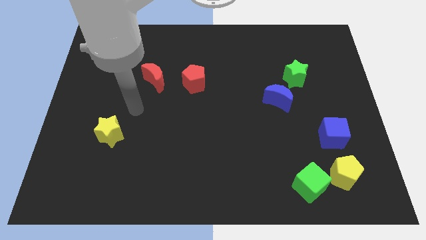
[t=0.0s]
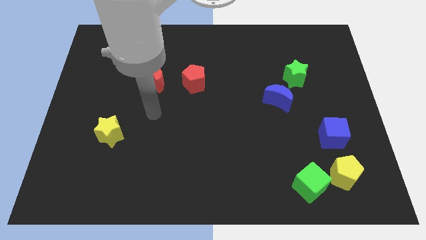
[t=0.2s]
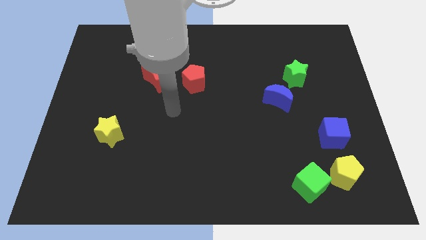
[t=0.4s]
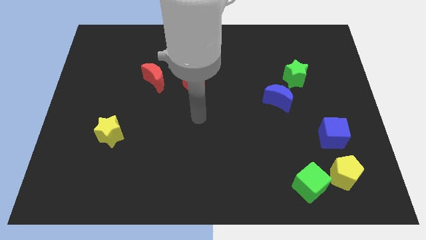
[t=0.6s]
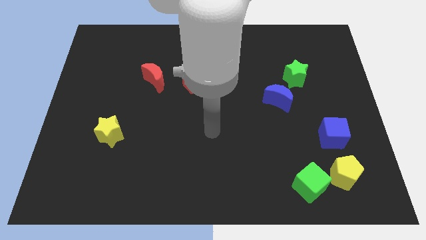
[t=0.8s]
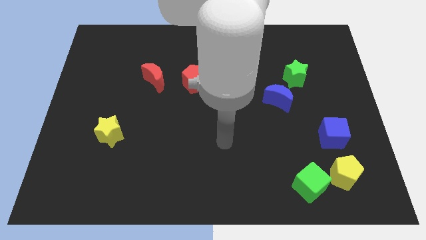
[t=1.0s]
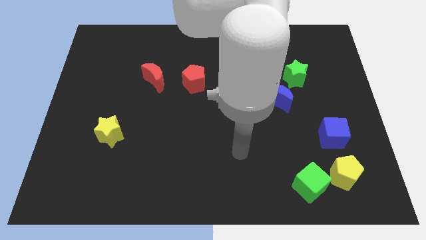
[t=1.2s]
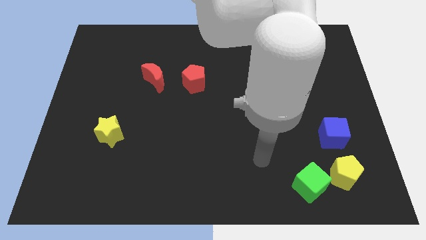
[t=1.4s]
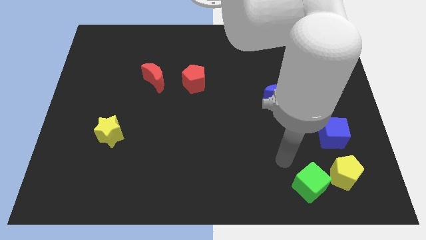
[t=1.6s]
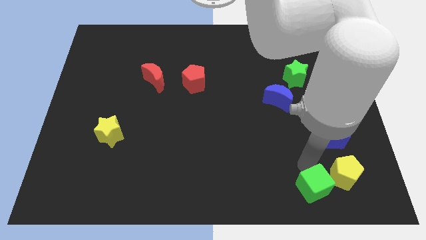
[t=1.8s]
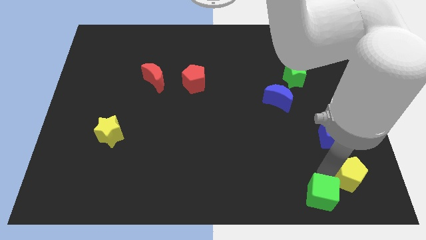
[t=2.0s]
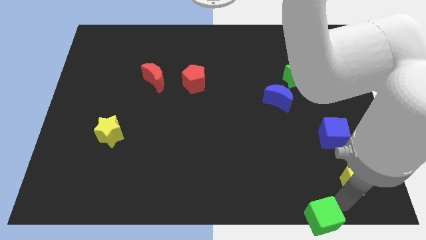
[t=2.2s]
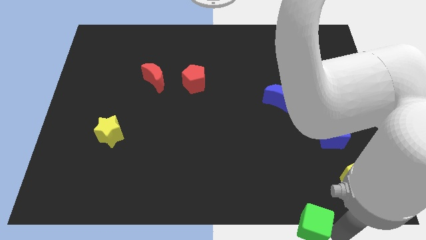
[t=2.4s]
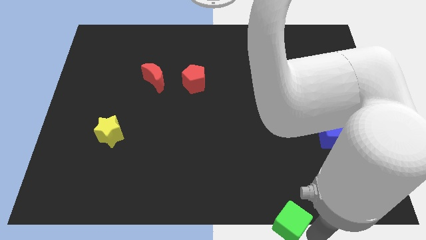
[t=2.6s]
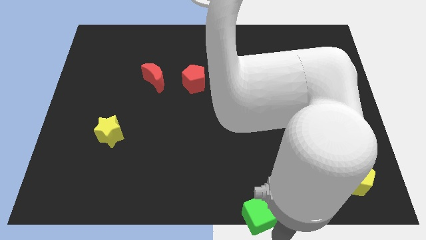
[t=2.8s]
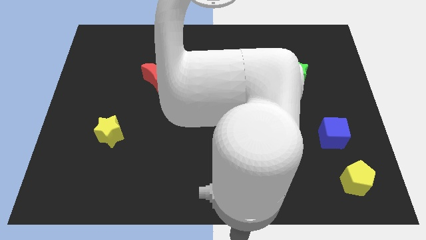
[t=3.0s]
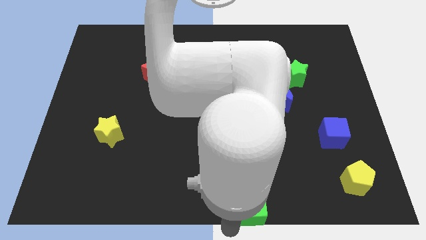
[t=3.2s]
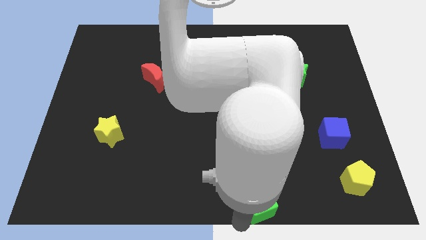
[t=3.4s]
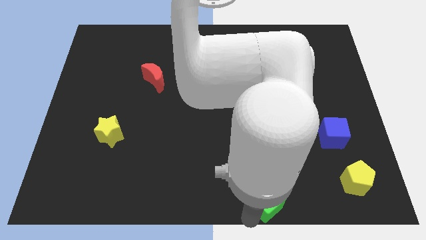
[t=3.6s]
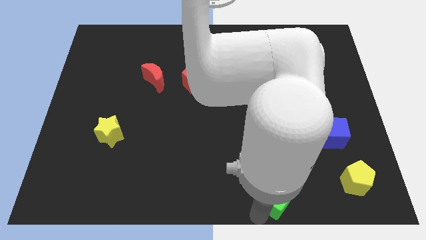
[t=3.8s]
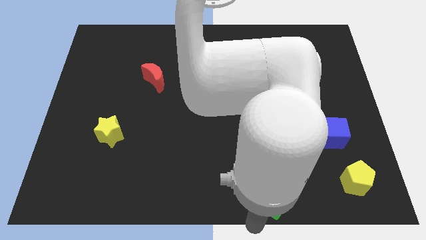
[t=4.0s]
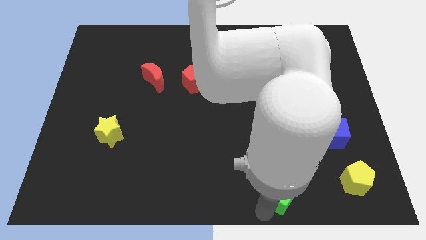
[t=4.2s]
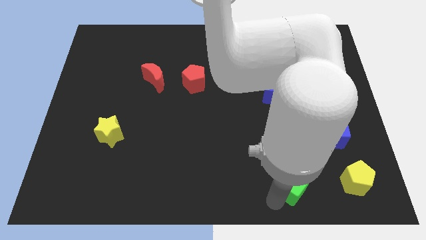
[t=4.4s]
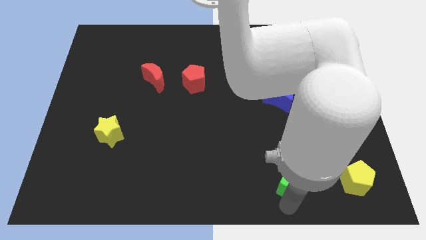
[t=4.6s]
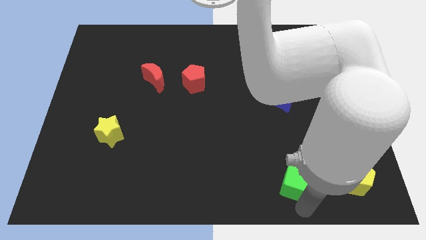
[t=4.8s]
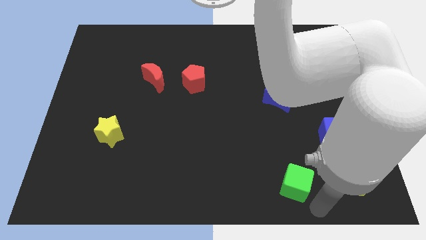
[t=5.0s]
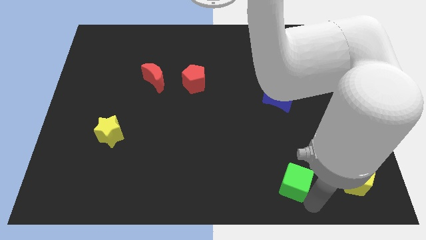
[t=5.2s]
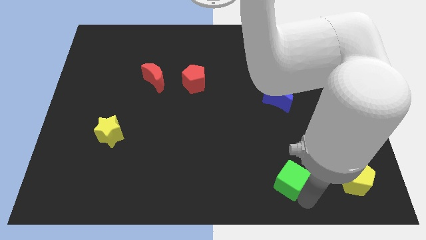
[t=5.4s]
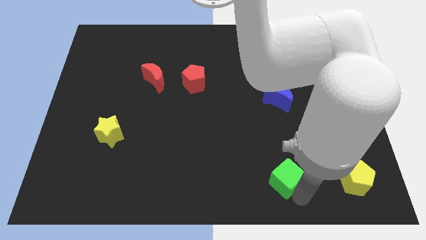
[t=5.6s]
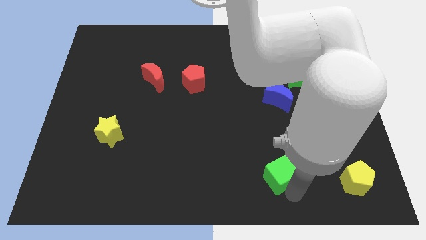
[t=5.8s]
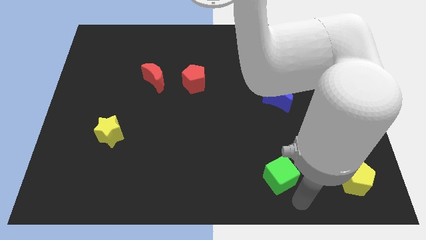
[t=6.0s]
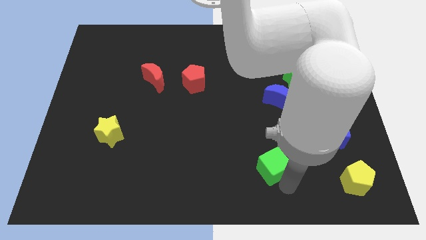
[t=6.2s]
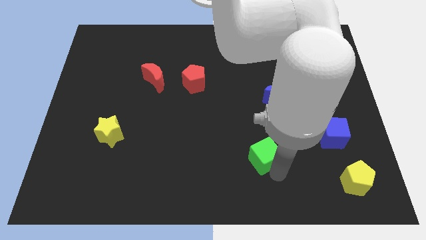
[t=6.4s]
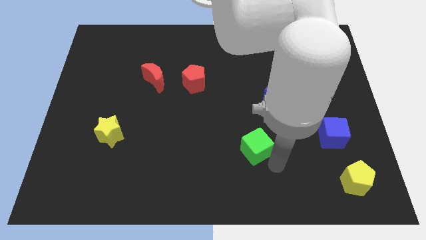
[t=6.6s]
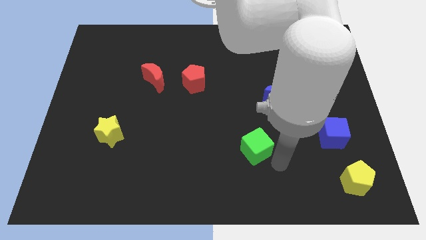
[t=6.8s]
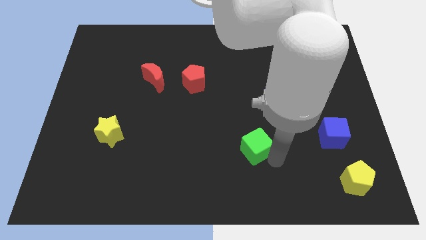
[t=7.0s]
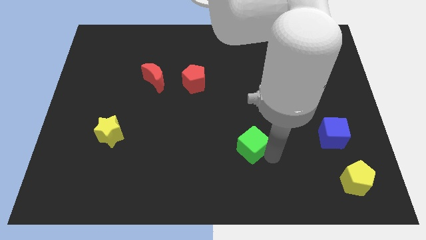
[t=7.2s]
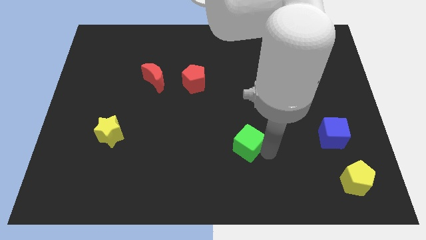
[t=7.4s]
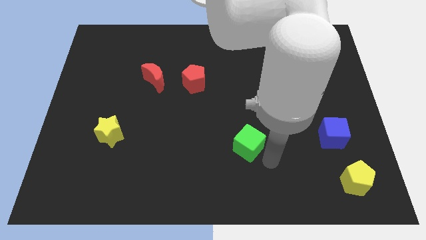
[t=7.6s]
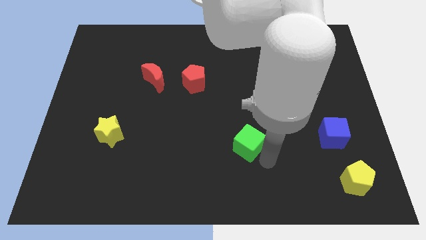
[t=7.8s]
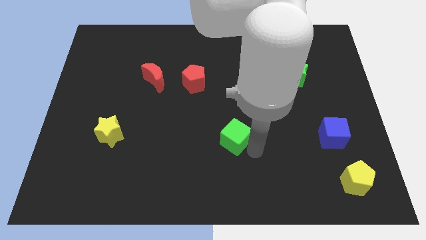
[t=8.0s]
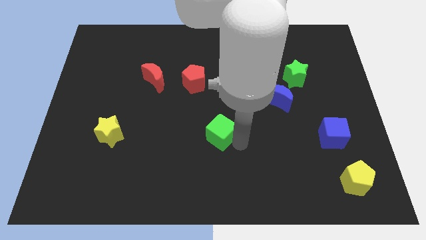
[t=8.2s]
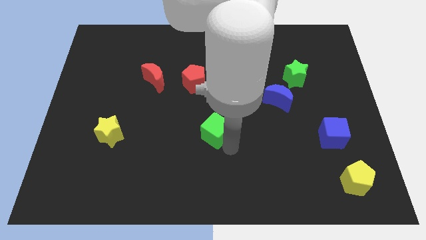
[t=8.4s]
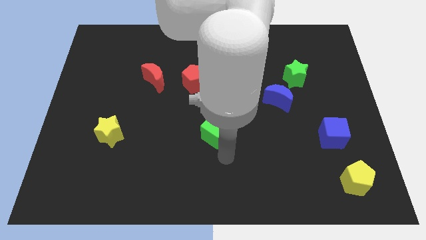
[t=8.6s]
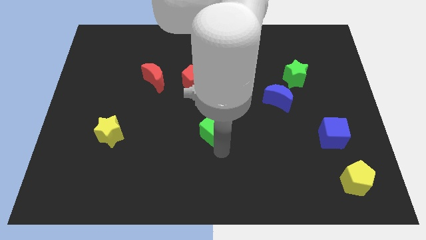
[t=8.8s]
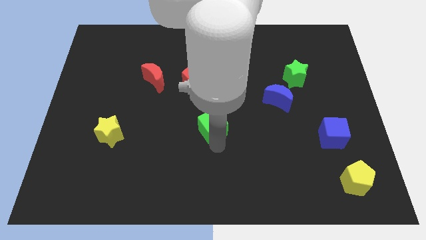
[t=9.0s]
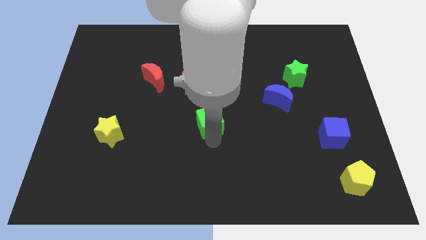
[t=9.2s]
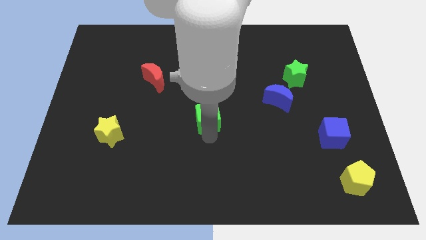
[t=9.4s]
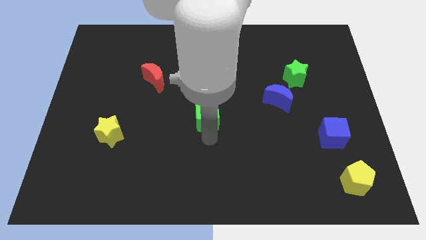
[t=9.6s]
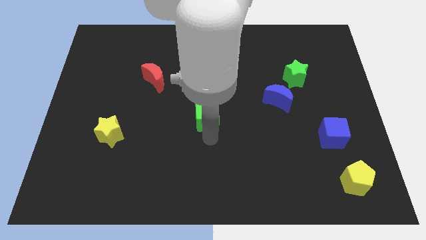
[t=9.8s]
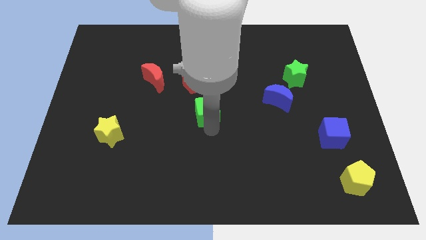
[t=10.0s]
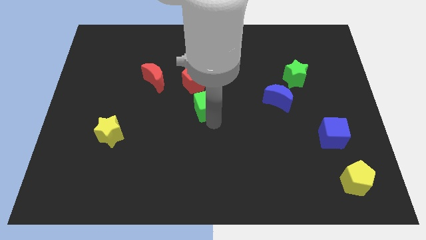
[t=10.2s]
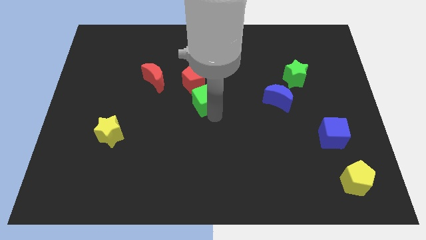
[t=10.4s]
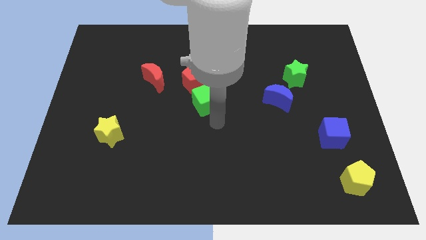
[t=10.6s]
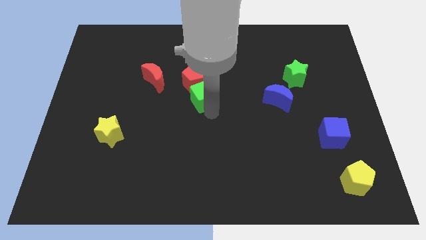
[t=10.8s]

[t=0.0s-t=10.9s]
slide the green cube towards the red pentagon

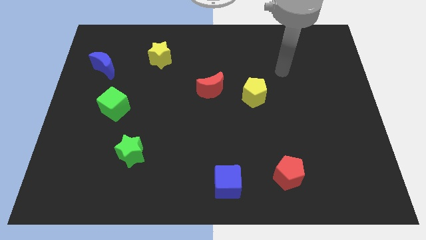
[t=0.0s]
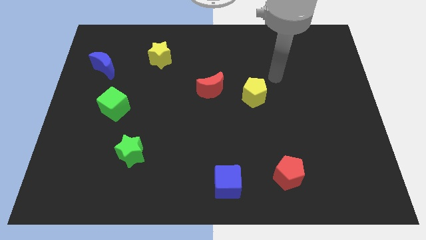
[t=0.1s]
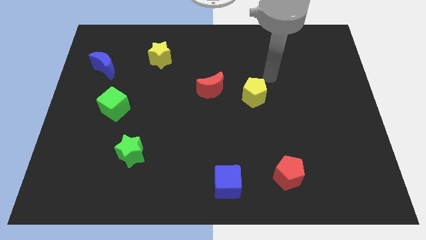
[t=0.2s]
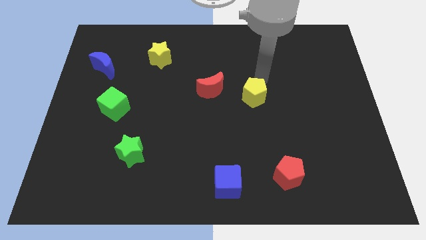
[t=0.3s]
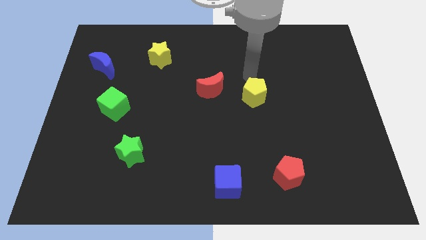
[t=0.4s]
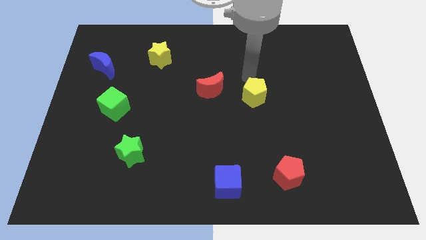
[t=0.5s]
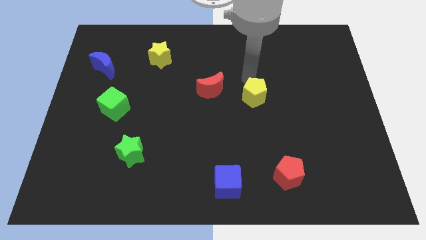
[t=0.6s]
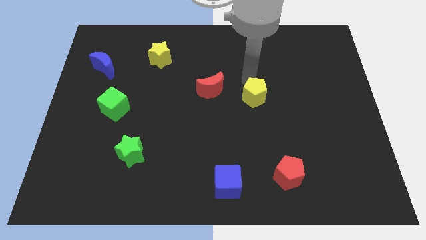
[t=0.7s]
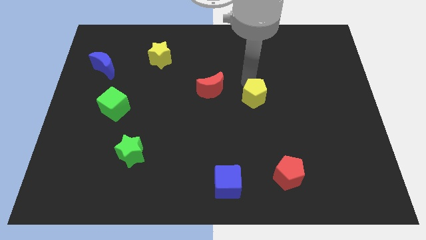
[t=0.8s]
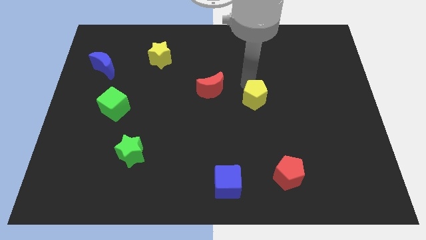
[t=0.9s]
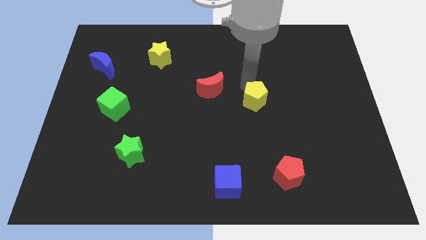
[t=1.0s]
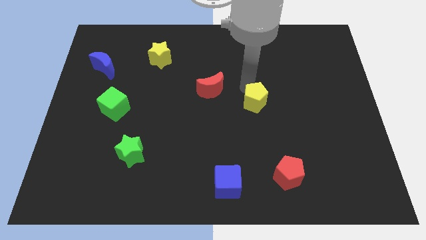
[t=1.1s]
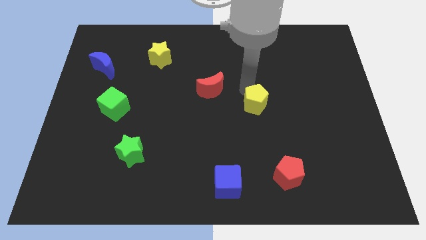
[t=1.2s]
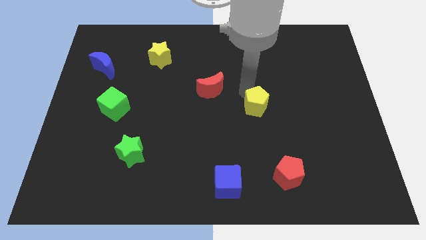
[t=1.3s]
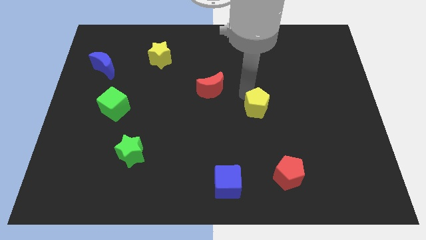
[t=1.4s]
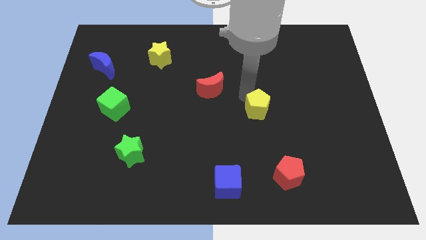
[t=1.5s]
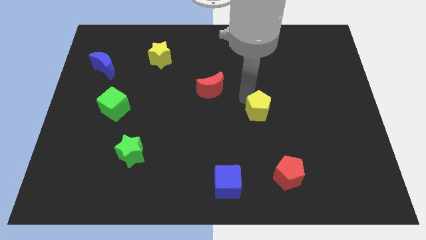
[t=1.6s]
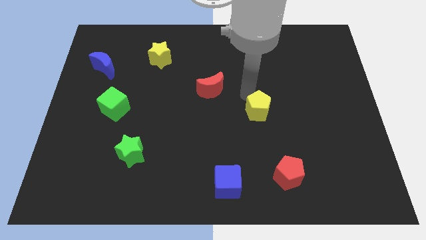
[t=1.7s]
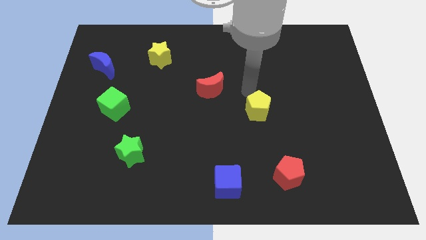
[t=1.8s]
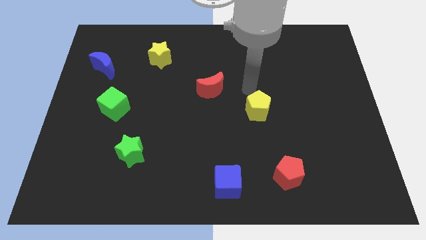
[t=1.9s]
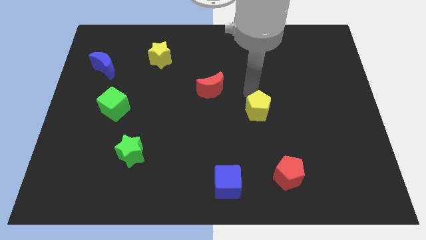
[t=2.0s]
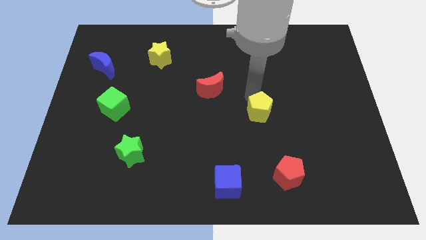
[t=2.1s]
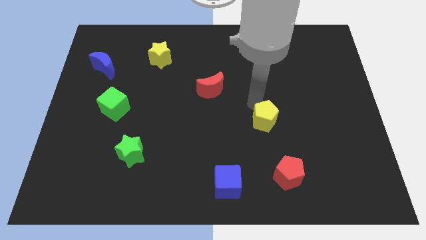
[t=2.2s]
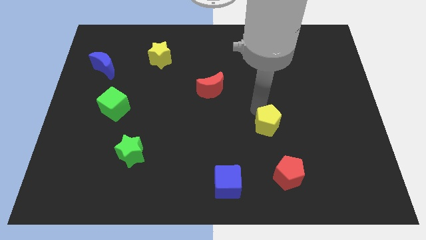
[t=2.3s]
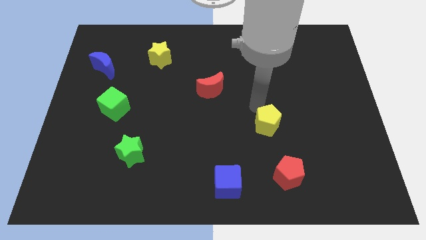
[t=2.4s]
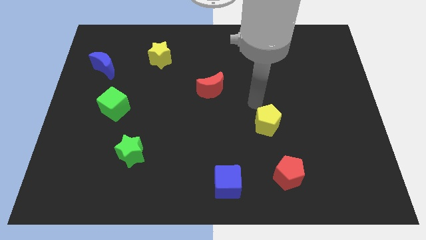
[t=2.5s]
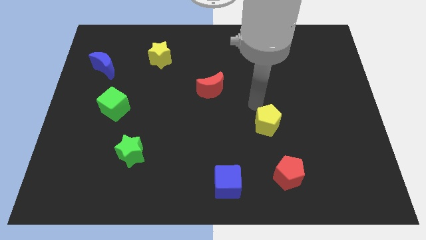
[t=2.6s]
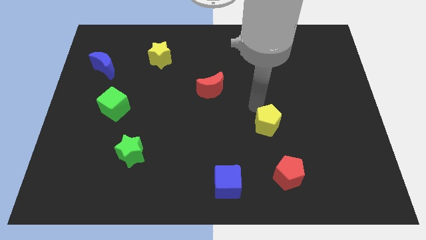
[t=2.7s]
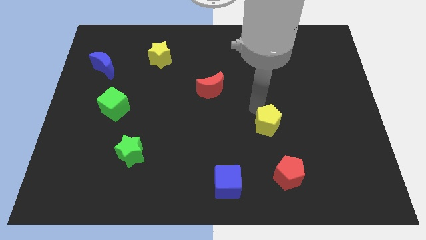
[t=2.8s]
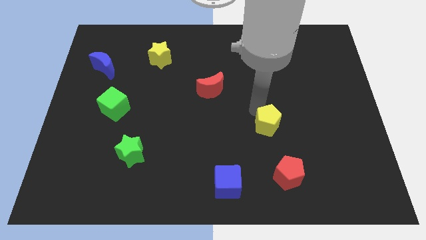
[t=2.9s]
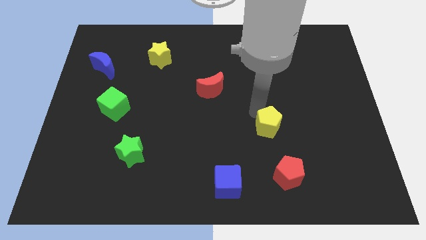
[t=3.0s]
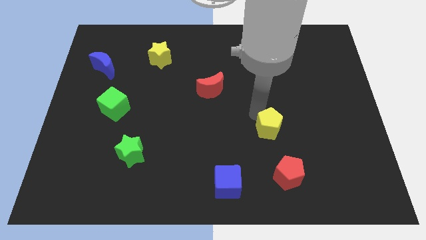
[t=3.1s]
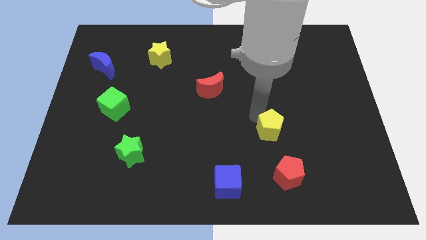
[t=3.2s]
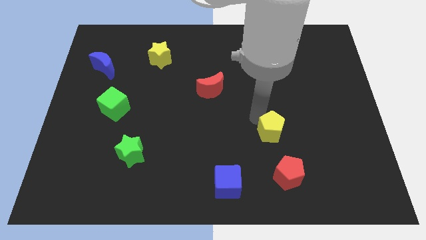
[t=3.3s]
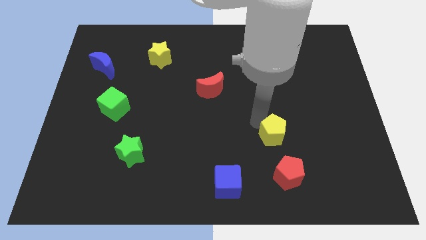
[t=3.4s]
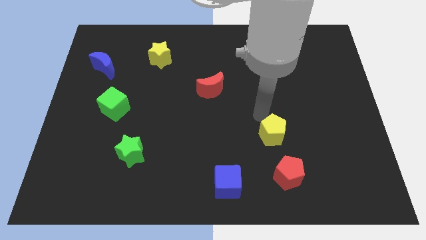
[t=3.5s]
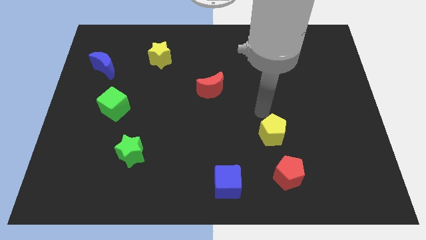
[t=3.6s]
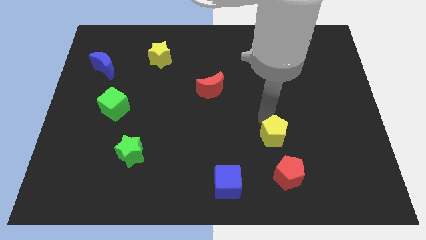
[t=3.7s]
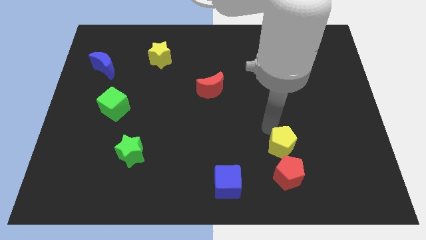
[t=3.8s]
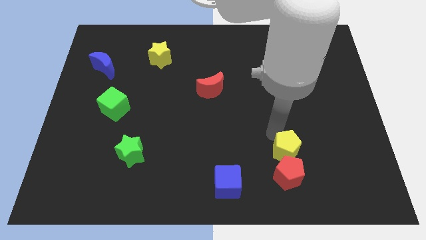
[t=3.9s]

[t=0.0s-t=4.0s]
push the yellow pentagon next to the red pentagon
